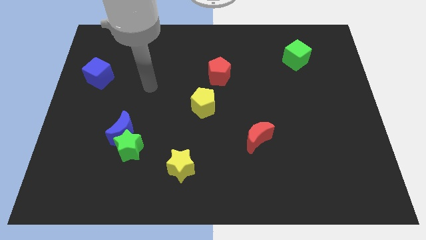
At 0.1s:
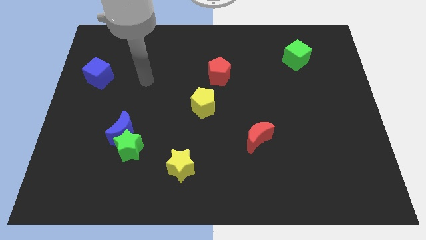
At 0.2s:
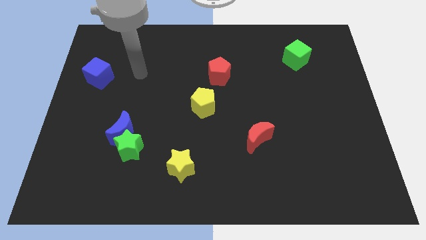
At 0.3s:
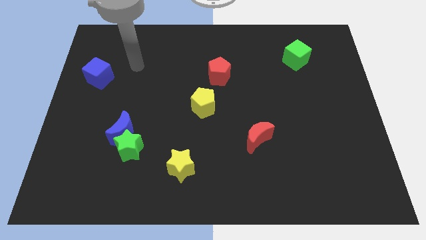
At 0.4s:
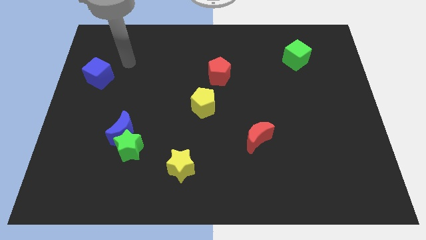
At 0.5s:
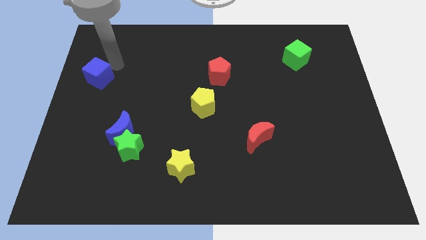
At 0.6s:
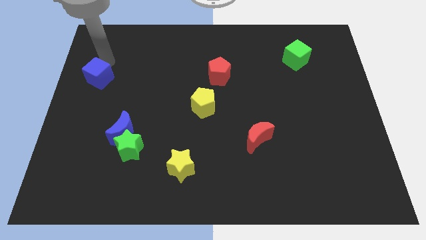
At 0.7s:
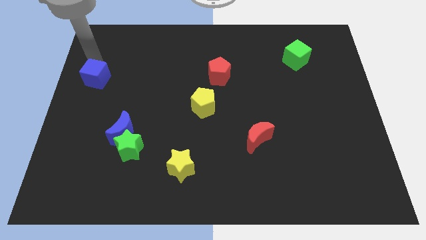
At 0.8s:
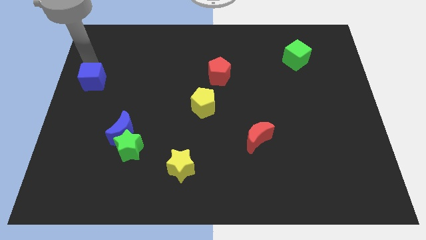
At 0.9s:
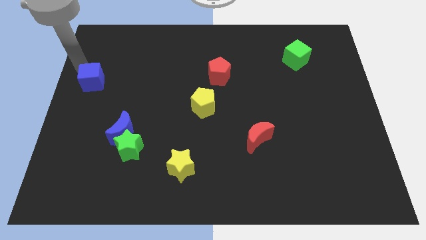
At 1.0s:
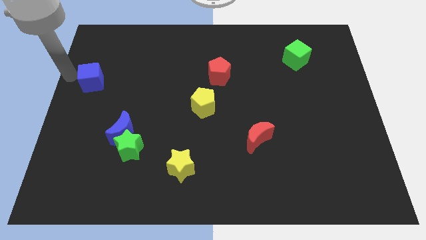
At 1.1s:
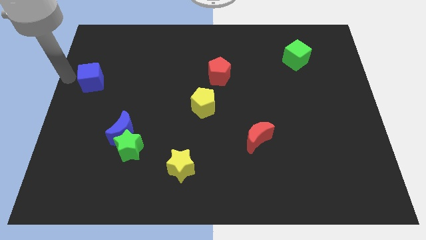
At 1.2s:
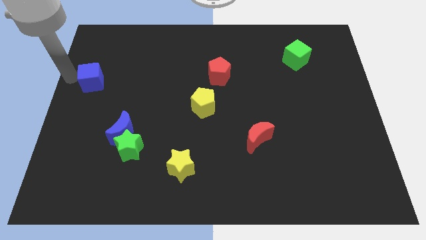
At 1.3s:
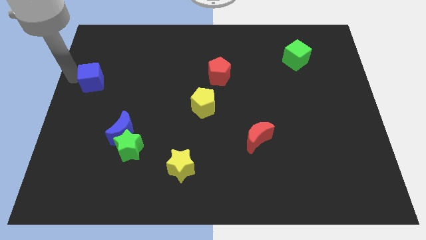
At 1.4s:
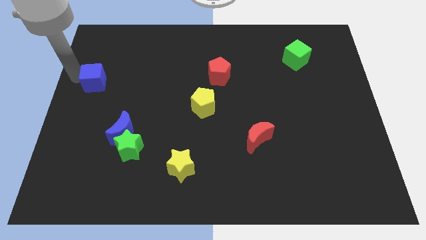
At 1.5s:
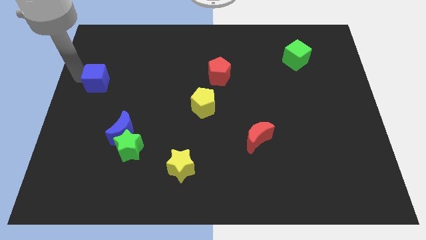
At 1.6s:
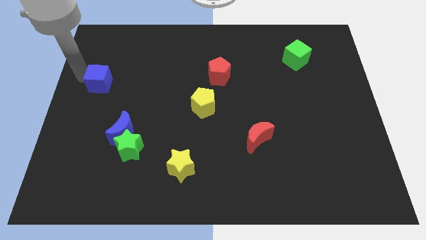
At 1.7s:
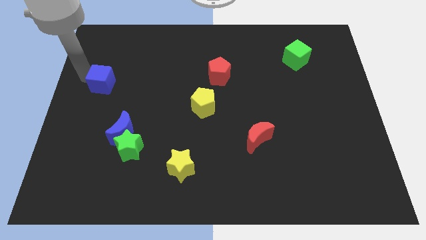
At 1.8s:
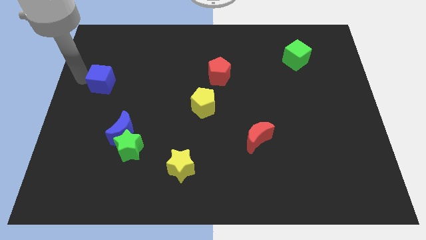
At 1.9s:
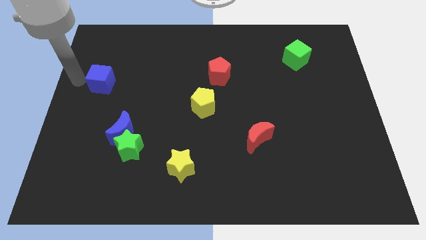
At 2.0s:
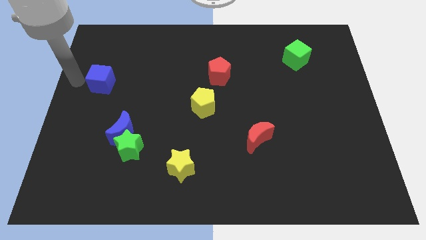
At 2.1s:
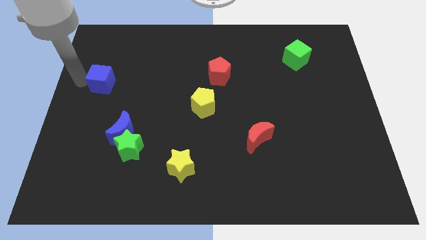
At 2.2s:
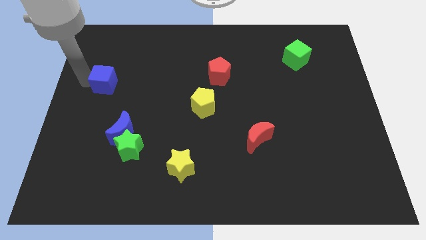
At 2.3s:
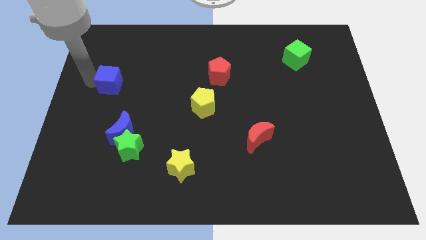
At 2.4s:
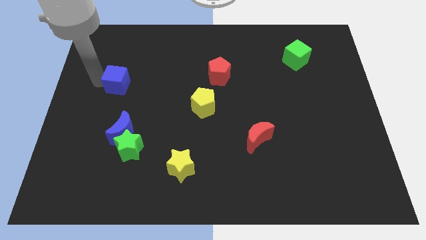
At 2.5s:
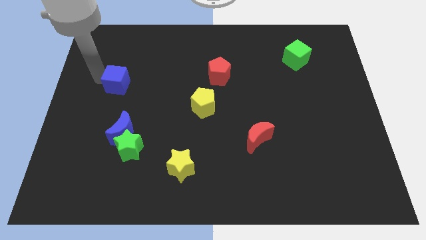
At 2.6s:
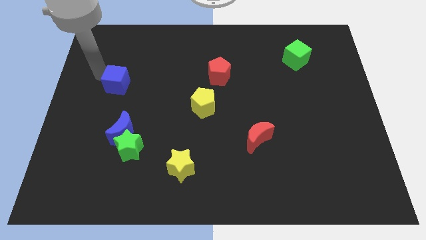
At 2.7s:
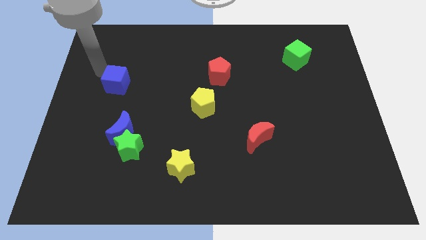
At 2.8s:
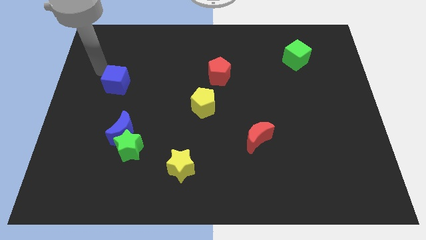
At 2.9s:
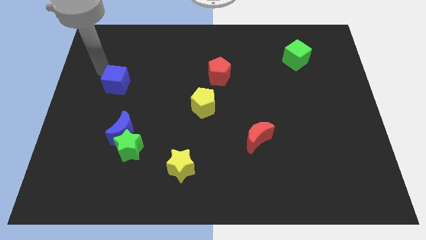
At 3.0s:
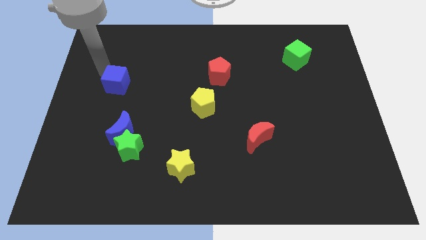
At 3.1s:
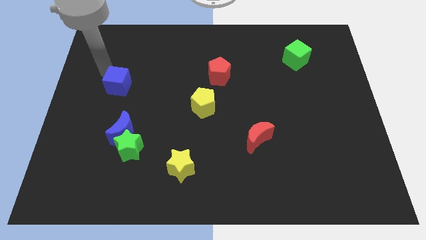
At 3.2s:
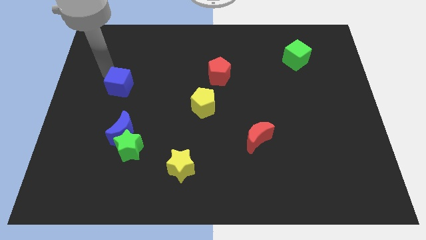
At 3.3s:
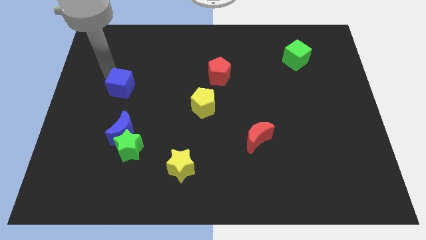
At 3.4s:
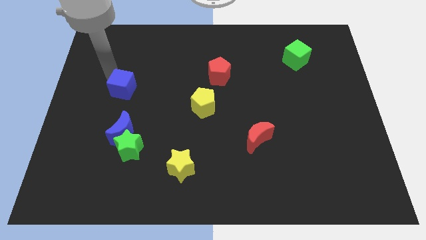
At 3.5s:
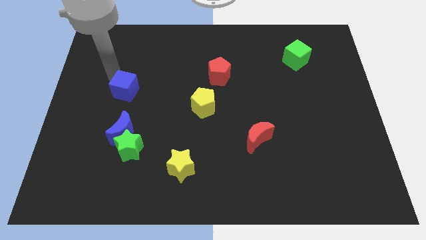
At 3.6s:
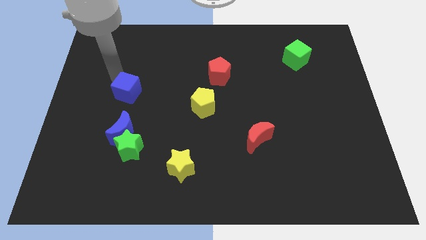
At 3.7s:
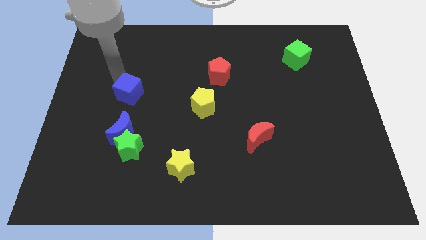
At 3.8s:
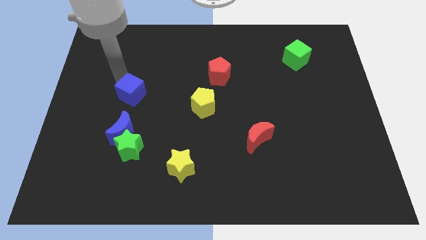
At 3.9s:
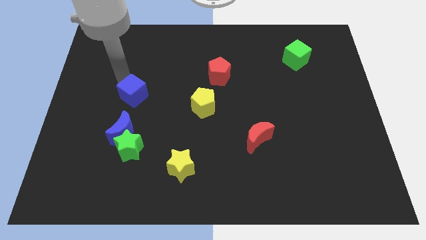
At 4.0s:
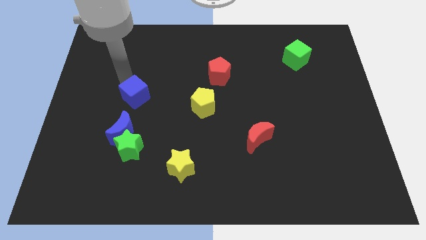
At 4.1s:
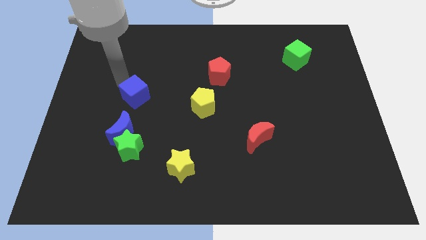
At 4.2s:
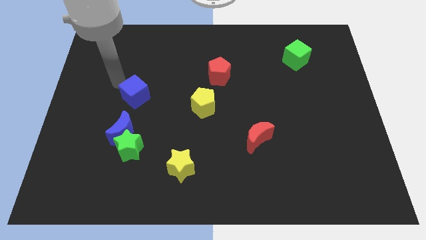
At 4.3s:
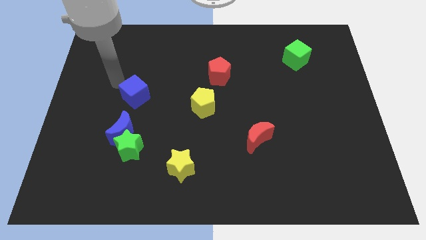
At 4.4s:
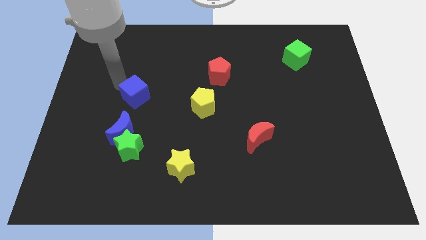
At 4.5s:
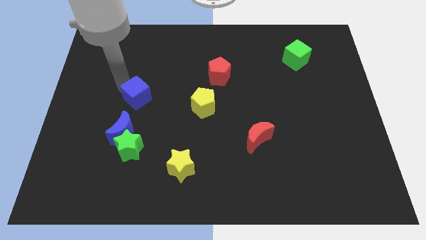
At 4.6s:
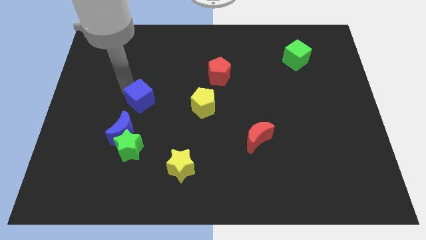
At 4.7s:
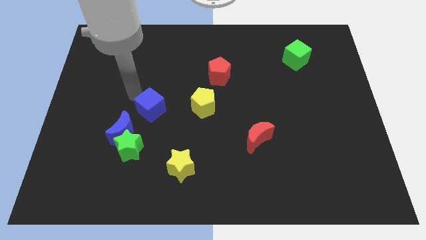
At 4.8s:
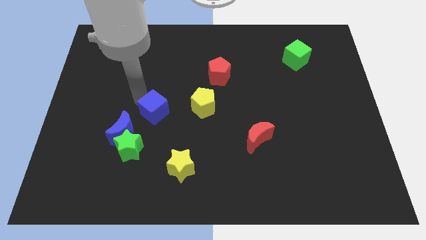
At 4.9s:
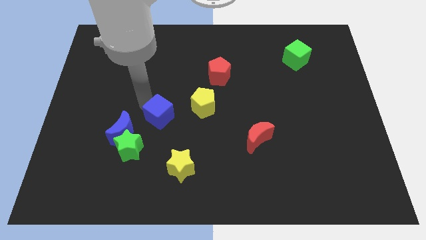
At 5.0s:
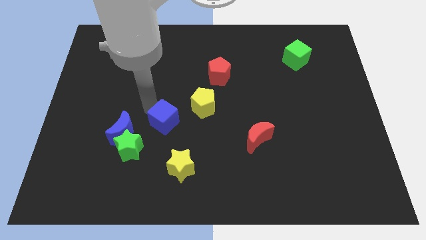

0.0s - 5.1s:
put the blue cube to the bottom left side of the yellow pentagon

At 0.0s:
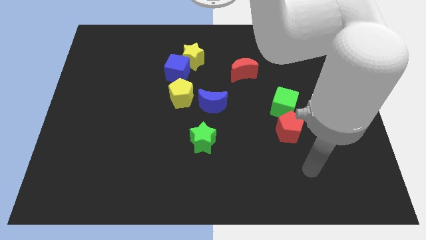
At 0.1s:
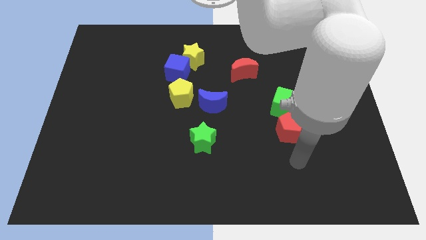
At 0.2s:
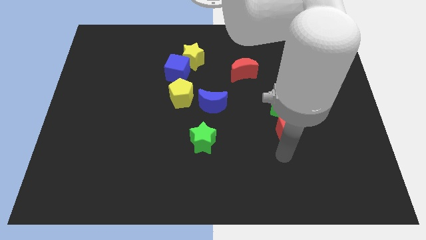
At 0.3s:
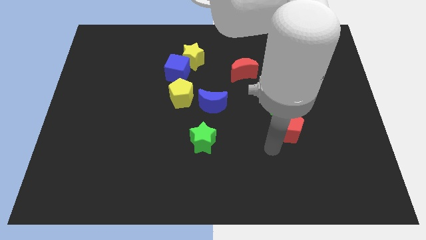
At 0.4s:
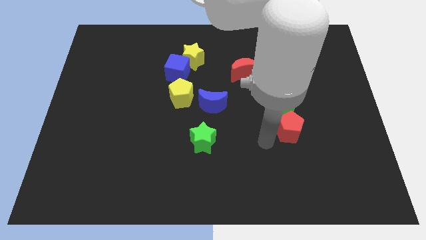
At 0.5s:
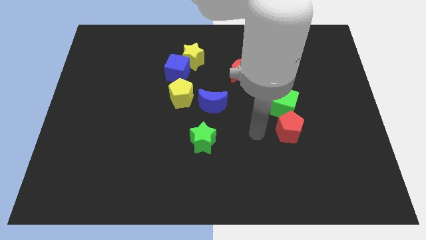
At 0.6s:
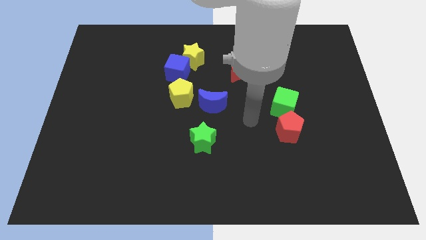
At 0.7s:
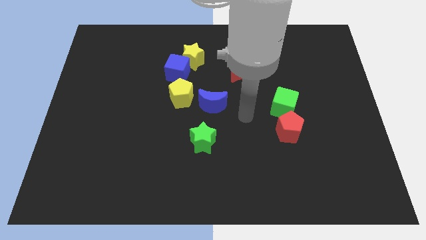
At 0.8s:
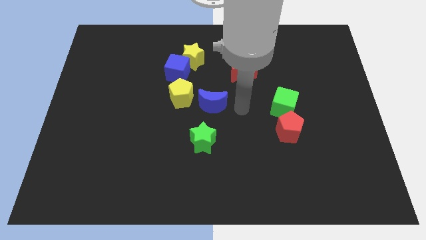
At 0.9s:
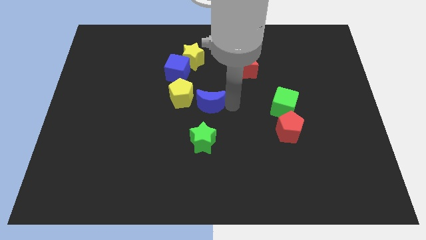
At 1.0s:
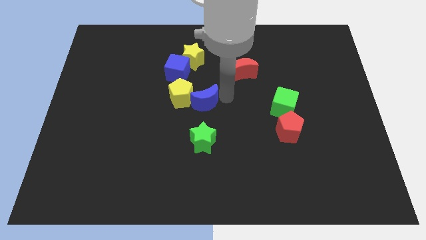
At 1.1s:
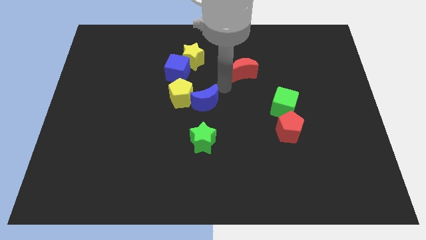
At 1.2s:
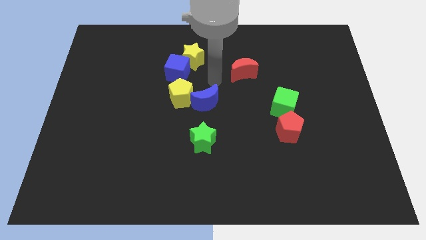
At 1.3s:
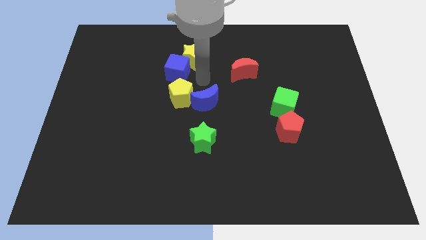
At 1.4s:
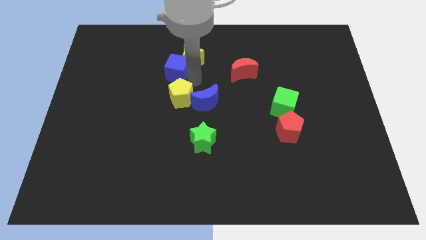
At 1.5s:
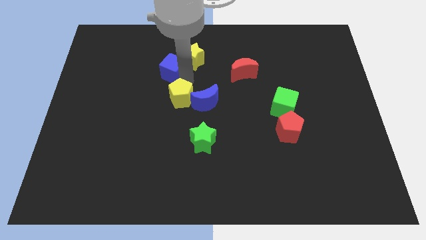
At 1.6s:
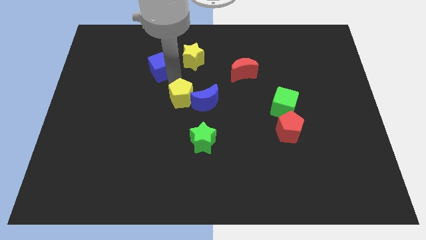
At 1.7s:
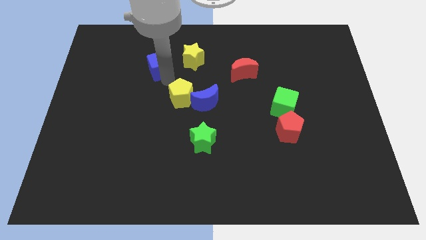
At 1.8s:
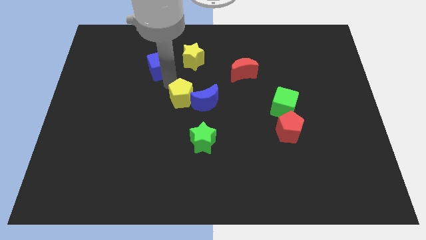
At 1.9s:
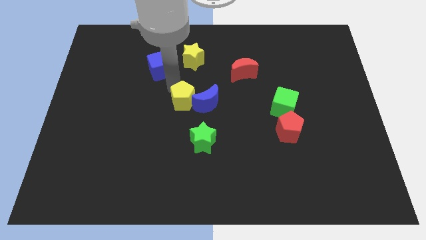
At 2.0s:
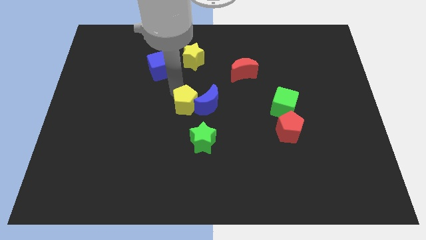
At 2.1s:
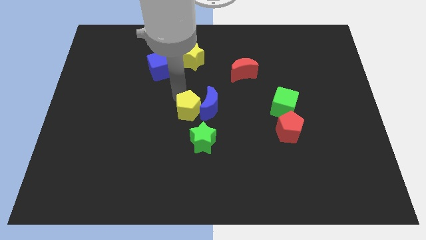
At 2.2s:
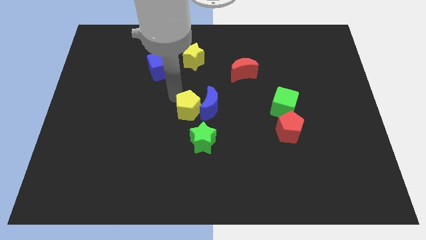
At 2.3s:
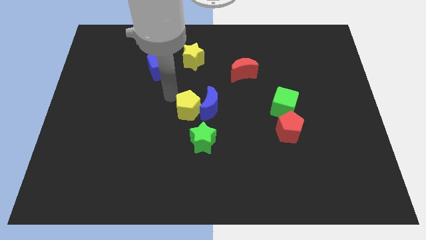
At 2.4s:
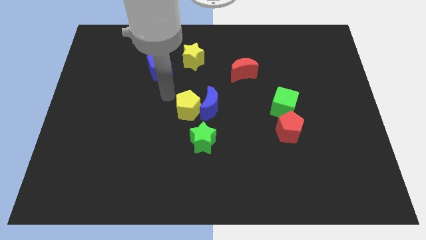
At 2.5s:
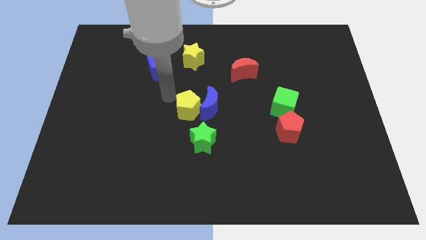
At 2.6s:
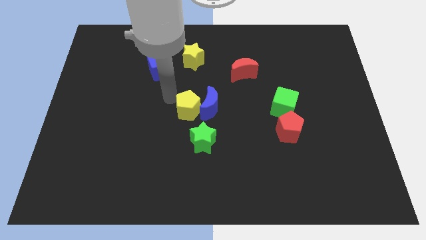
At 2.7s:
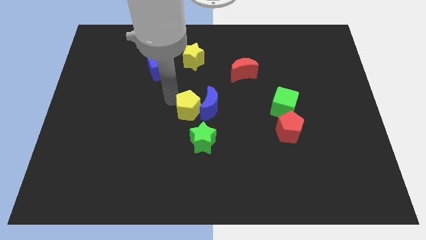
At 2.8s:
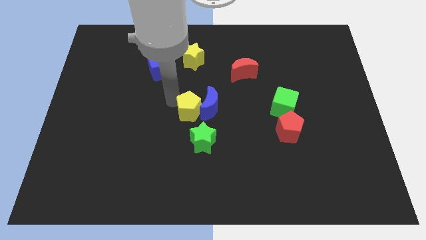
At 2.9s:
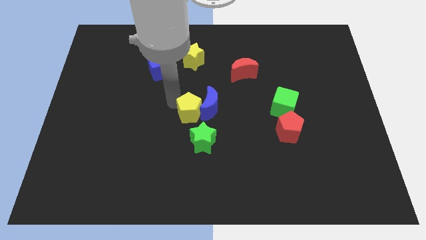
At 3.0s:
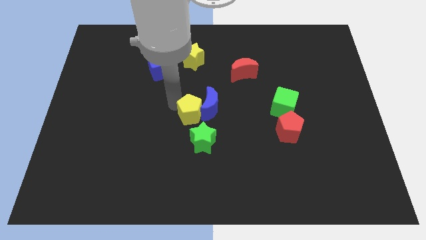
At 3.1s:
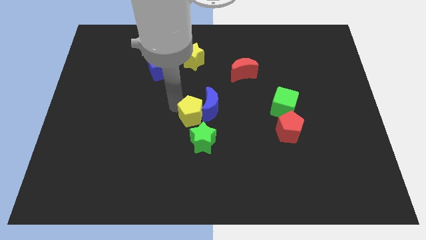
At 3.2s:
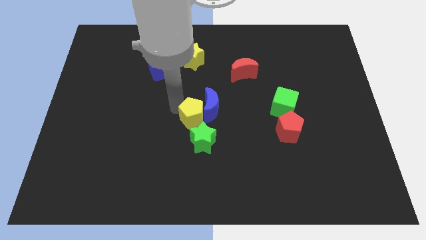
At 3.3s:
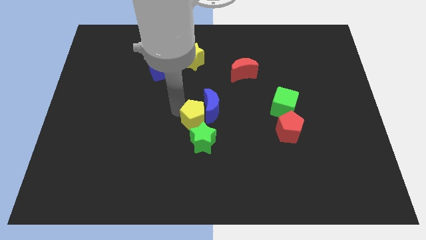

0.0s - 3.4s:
slide the yellow pentagon to the bottom of the blue moon
